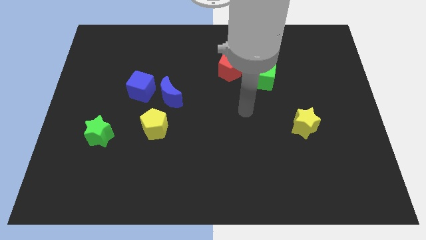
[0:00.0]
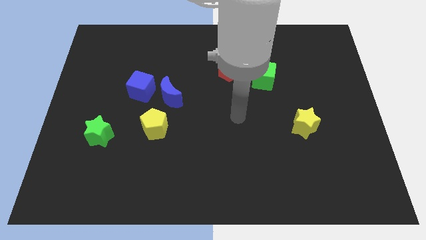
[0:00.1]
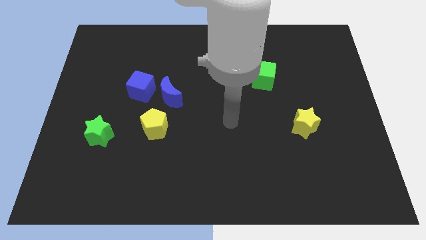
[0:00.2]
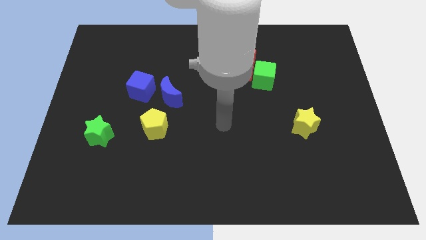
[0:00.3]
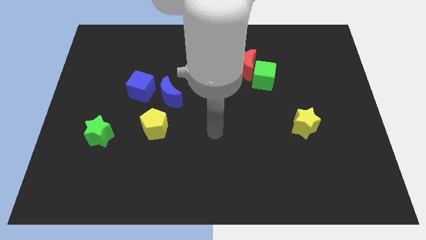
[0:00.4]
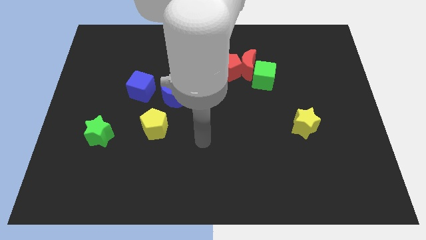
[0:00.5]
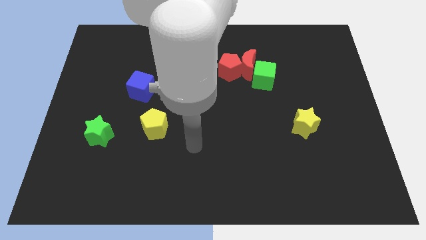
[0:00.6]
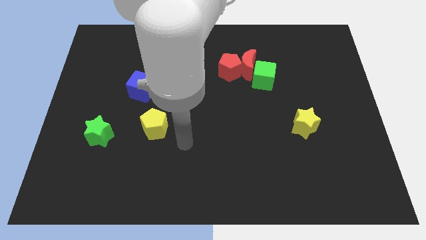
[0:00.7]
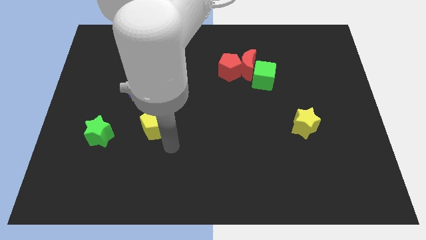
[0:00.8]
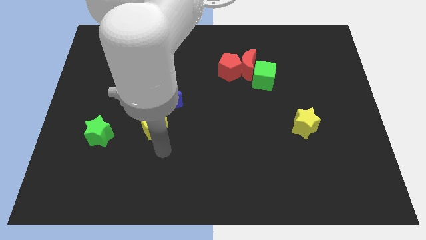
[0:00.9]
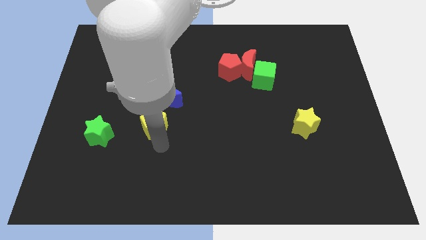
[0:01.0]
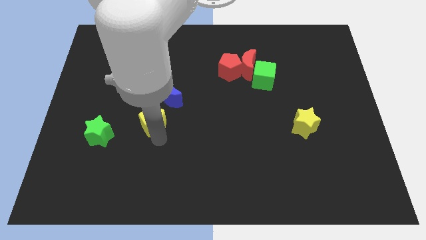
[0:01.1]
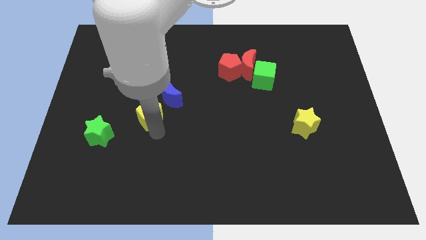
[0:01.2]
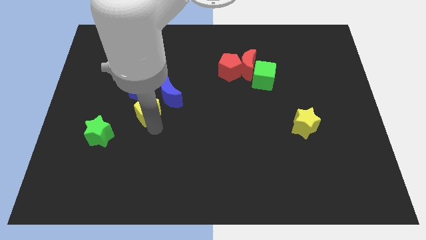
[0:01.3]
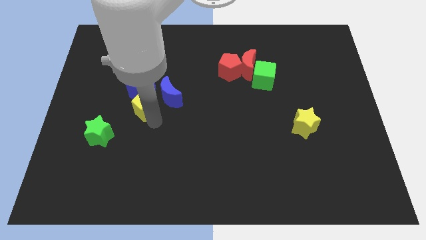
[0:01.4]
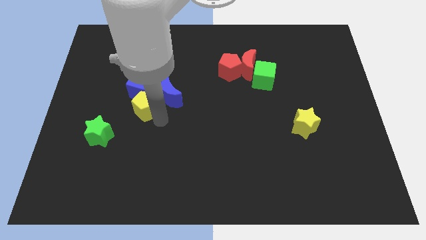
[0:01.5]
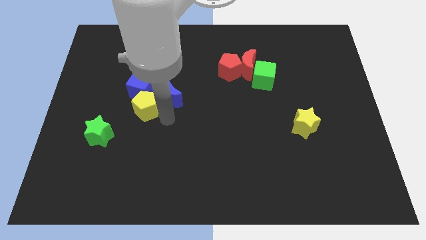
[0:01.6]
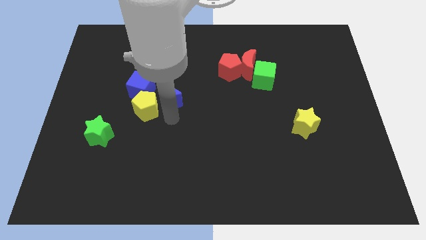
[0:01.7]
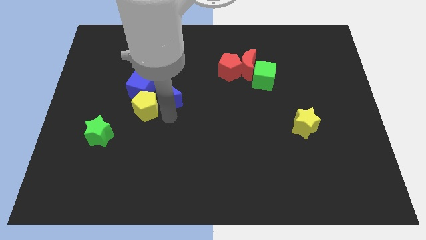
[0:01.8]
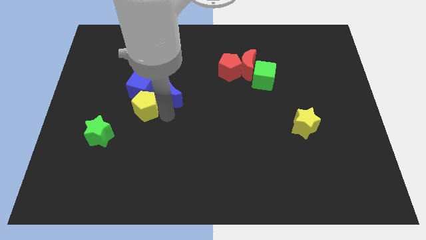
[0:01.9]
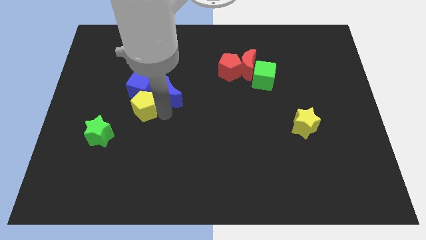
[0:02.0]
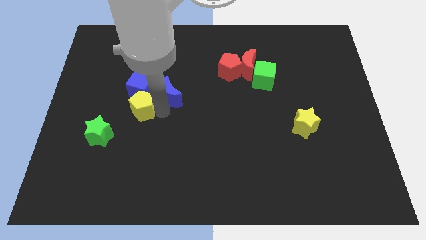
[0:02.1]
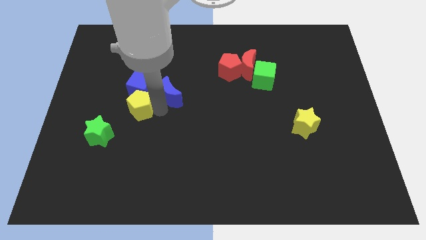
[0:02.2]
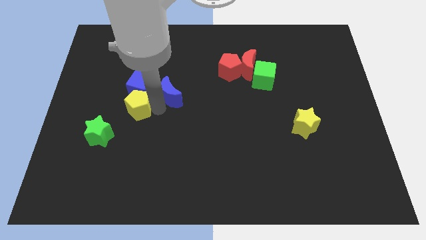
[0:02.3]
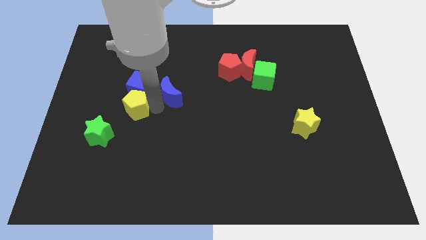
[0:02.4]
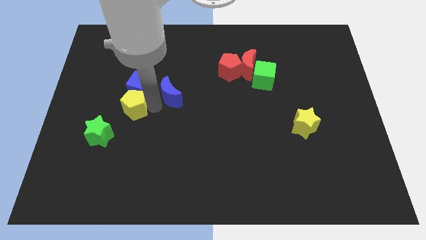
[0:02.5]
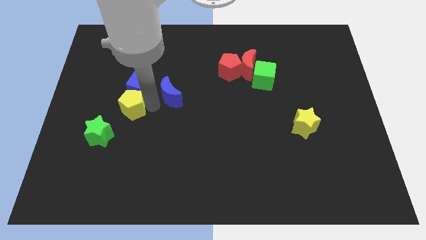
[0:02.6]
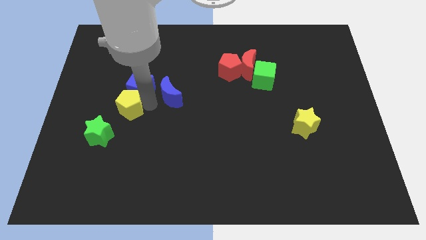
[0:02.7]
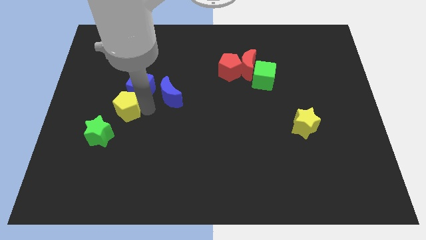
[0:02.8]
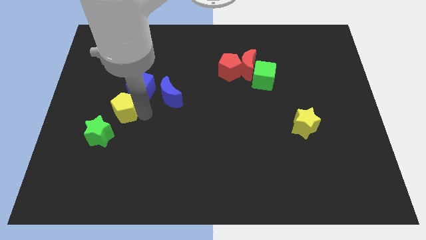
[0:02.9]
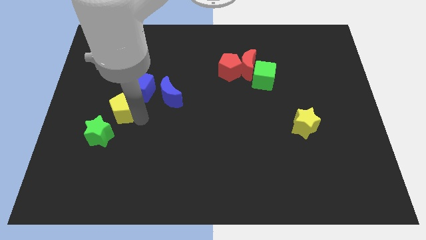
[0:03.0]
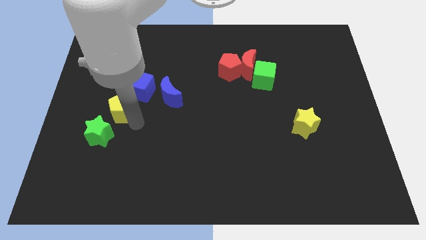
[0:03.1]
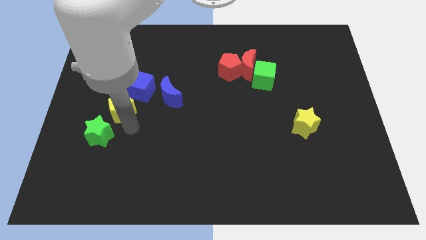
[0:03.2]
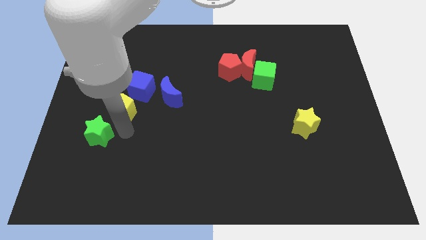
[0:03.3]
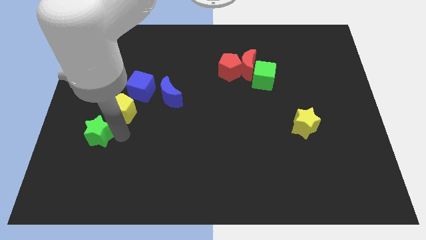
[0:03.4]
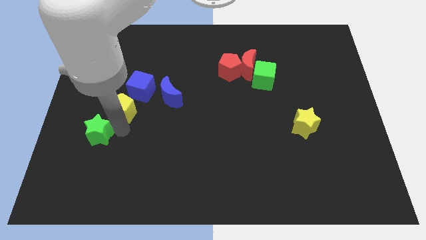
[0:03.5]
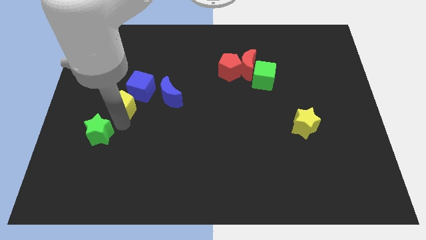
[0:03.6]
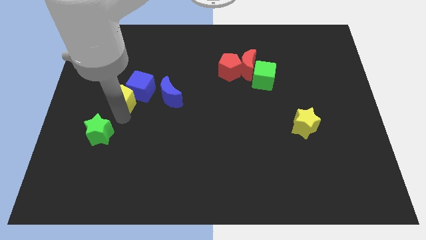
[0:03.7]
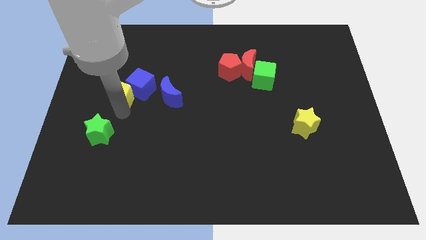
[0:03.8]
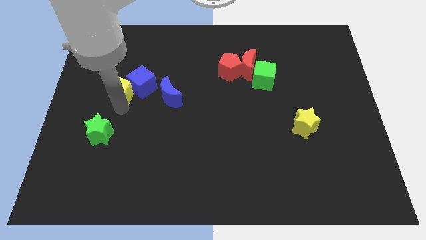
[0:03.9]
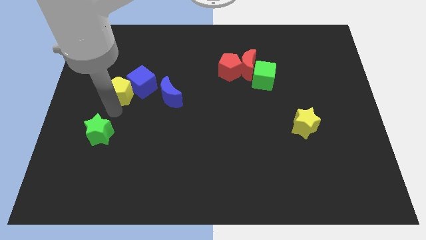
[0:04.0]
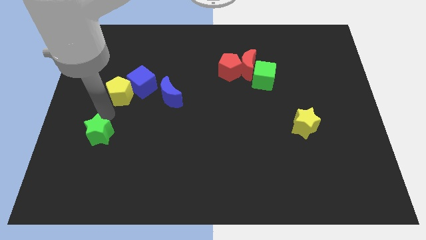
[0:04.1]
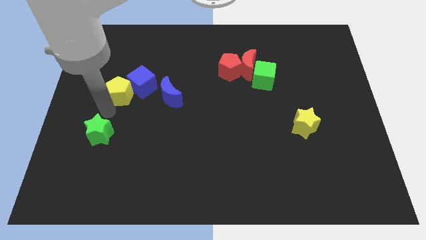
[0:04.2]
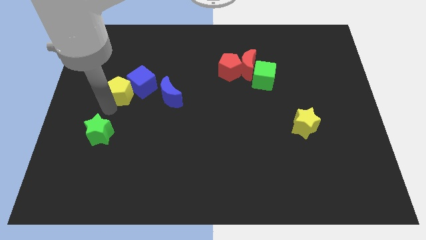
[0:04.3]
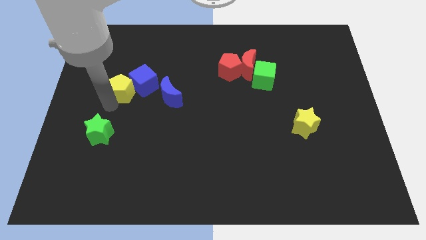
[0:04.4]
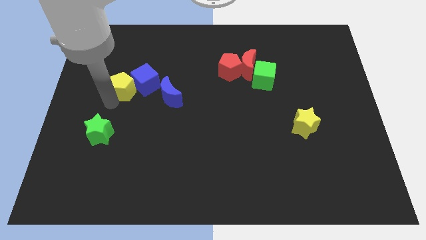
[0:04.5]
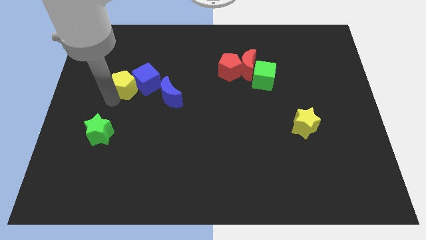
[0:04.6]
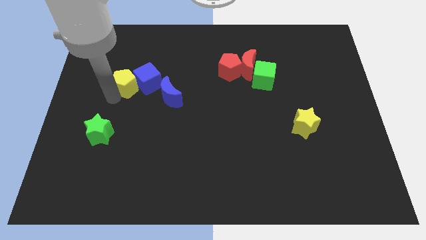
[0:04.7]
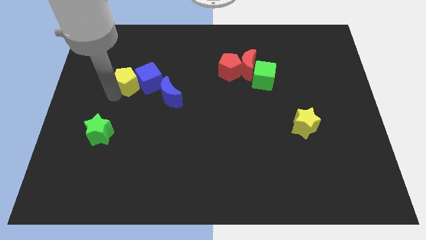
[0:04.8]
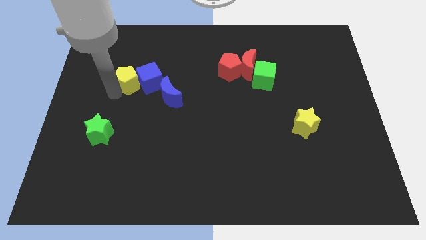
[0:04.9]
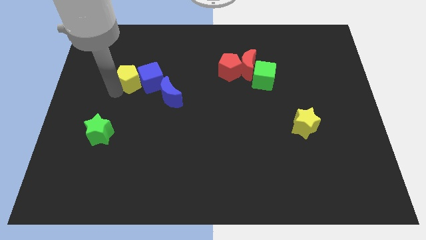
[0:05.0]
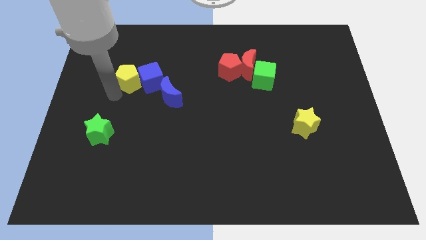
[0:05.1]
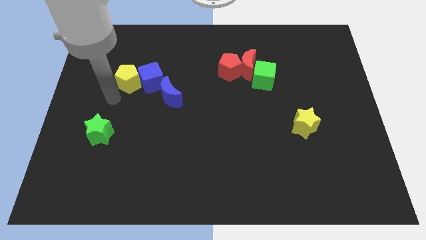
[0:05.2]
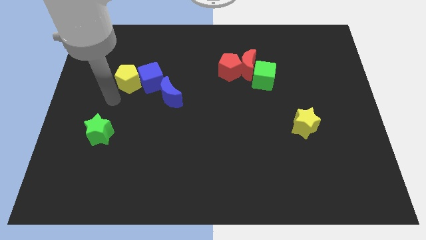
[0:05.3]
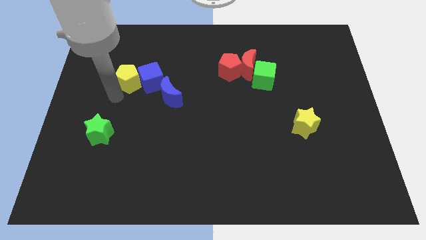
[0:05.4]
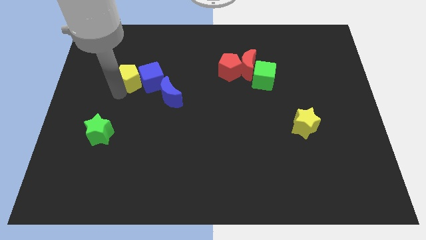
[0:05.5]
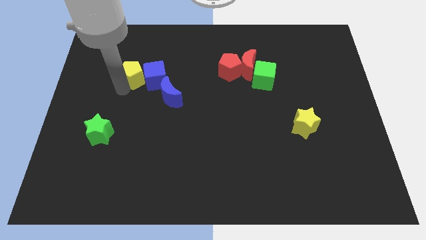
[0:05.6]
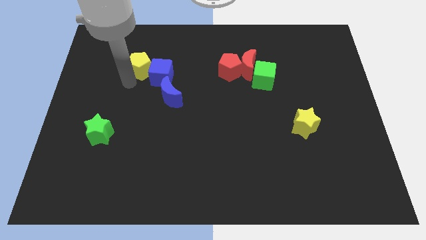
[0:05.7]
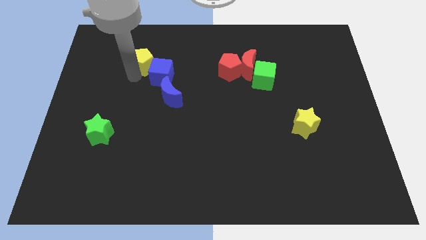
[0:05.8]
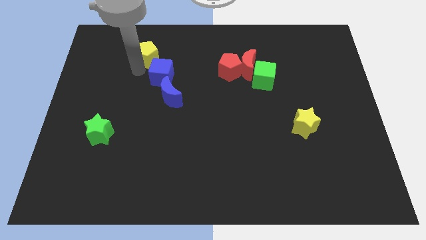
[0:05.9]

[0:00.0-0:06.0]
slide the yellow pentagon above the blue cube
